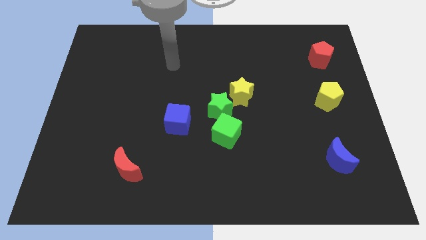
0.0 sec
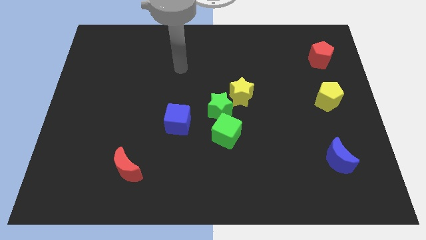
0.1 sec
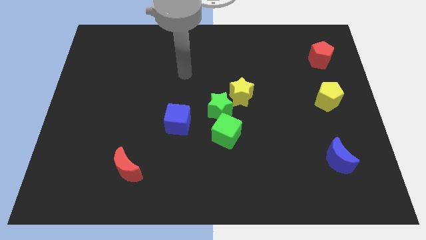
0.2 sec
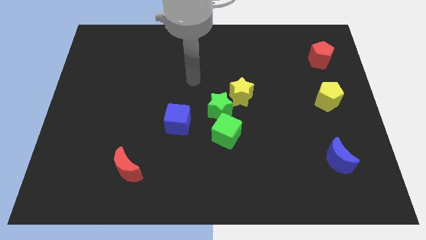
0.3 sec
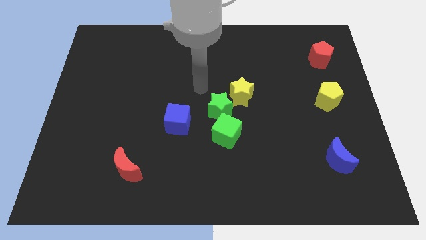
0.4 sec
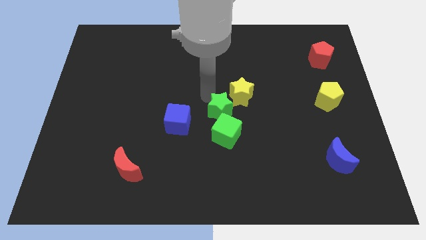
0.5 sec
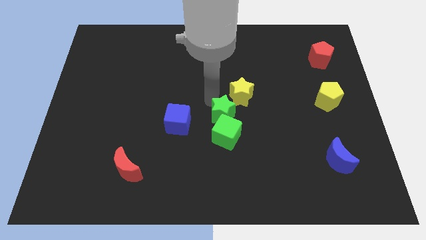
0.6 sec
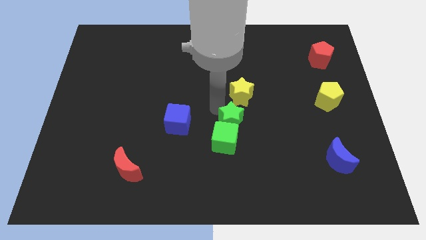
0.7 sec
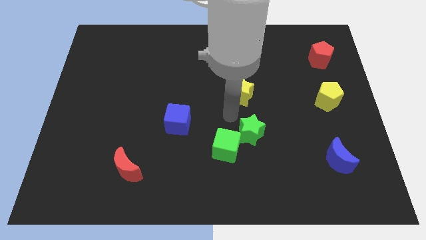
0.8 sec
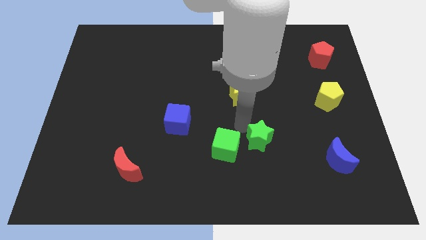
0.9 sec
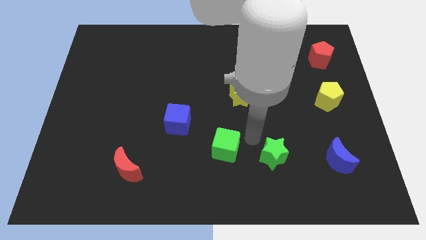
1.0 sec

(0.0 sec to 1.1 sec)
separate the green cube from the green star

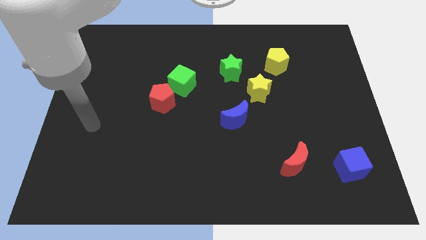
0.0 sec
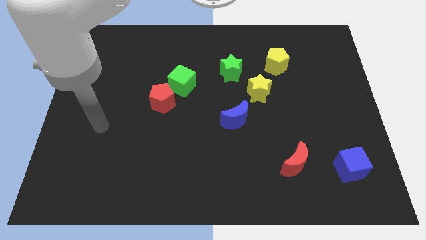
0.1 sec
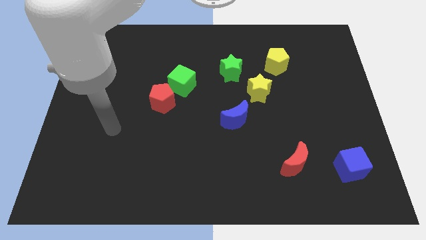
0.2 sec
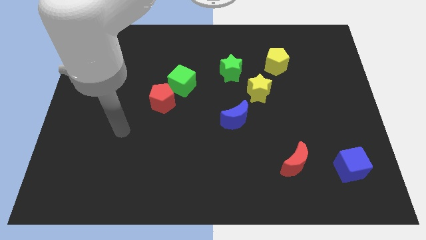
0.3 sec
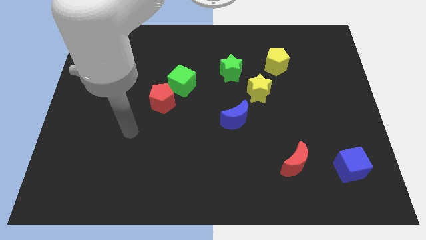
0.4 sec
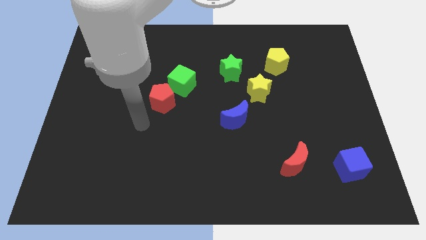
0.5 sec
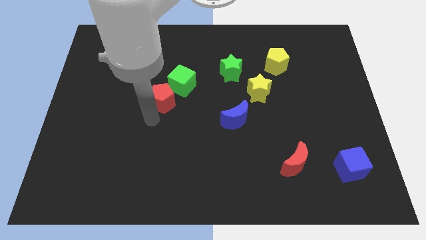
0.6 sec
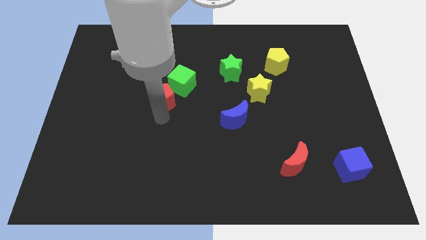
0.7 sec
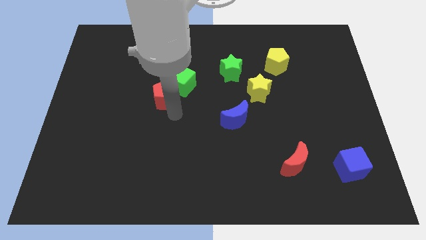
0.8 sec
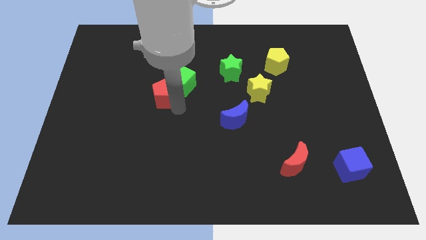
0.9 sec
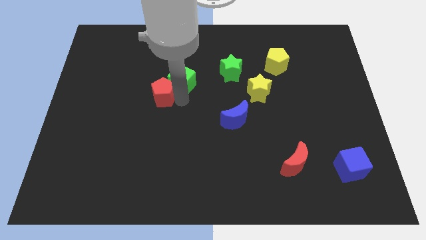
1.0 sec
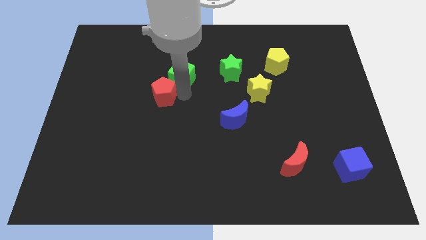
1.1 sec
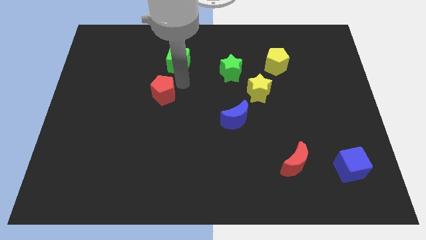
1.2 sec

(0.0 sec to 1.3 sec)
move the red pentagon away from the green cube

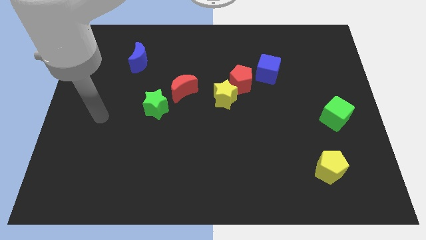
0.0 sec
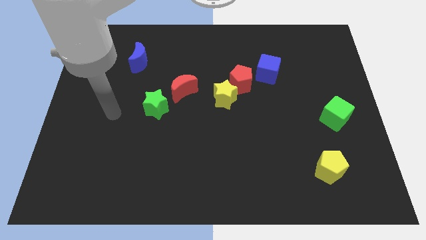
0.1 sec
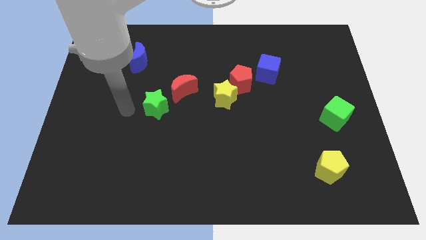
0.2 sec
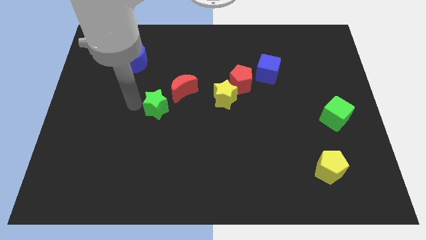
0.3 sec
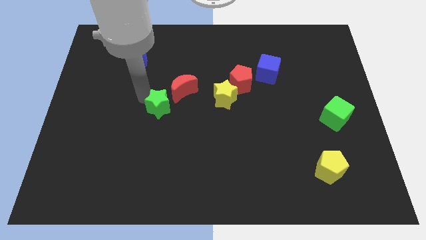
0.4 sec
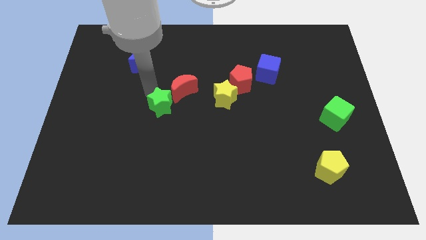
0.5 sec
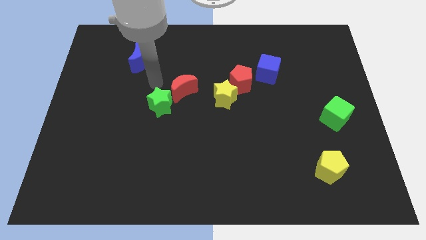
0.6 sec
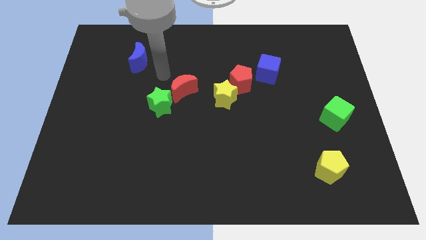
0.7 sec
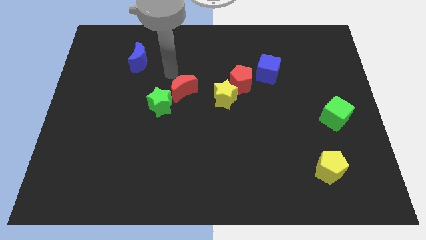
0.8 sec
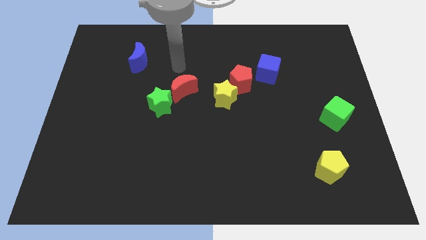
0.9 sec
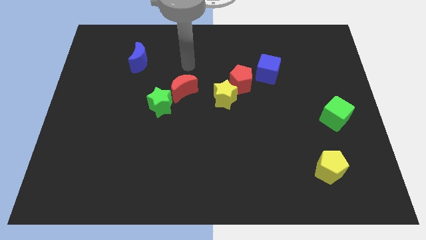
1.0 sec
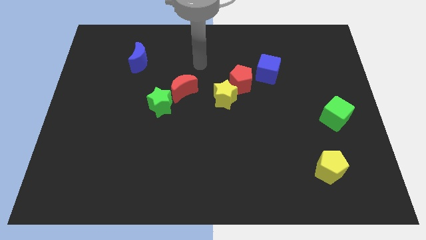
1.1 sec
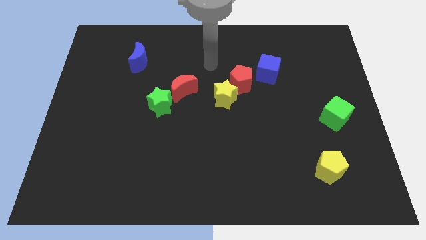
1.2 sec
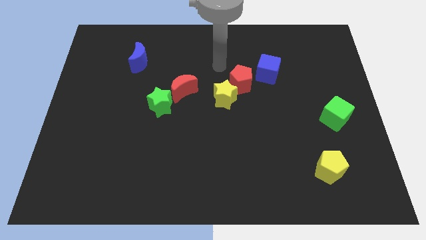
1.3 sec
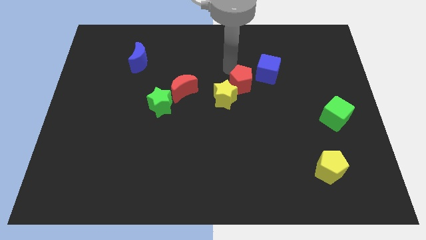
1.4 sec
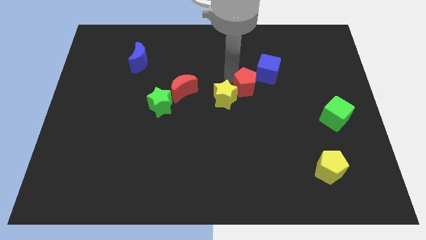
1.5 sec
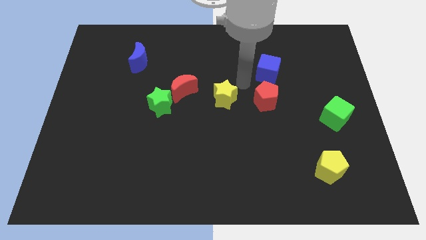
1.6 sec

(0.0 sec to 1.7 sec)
pull the yellow star apart from the red pentagon

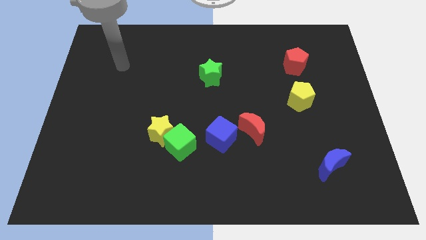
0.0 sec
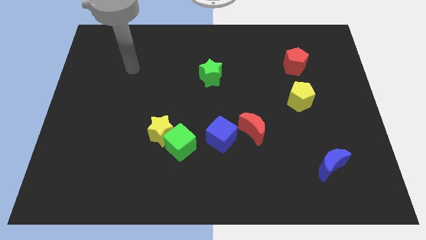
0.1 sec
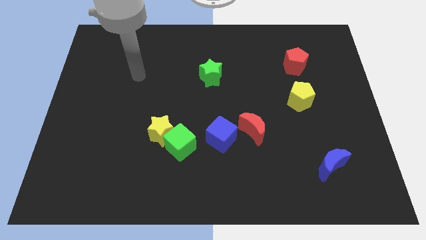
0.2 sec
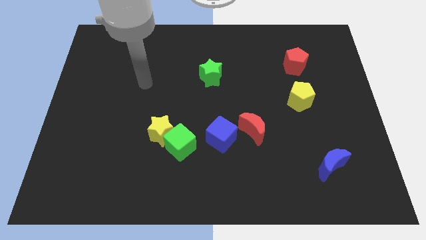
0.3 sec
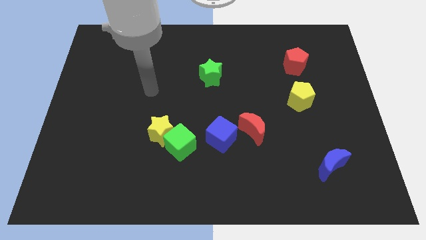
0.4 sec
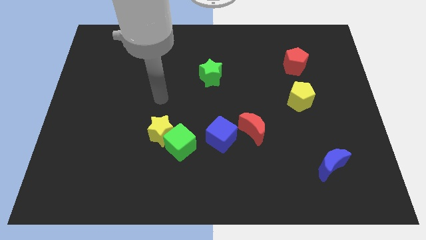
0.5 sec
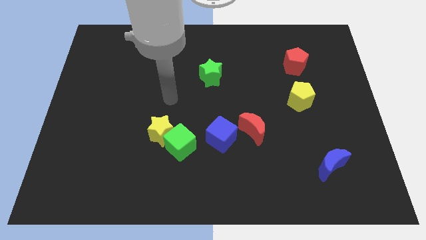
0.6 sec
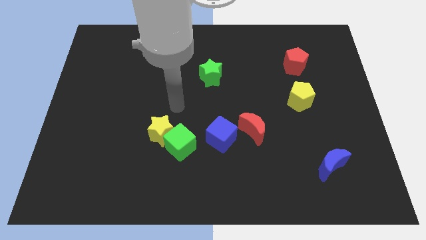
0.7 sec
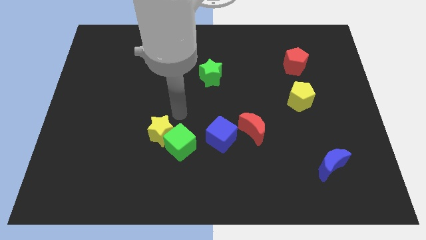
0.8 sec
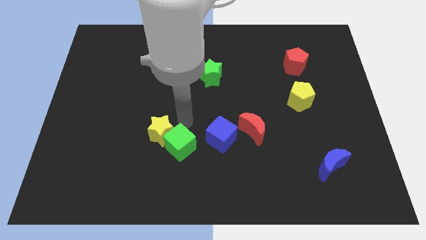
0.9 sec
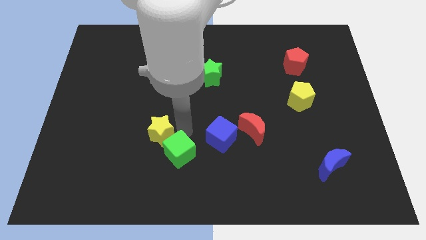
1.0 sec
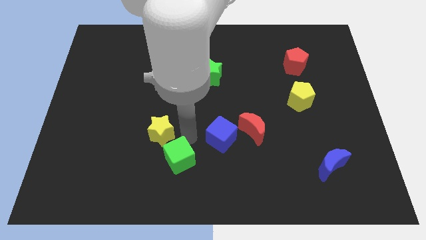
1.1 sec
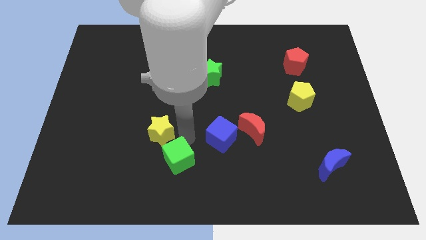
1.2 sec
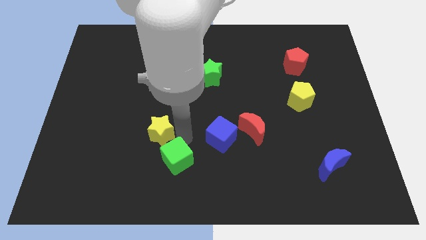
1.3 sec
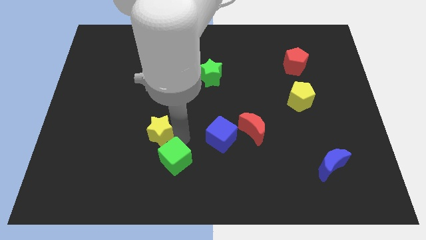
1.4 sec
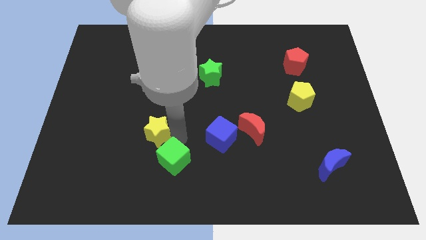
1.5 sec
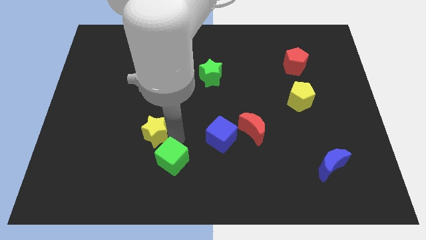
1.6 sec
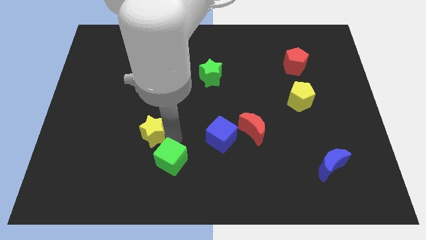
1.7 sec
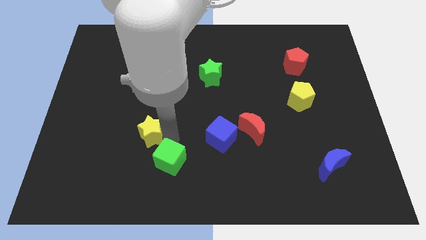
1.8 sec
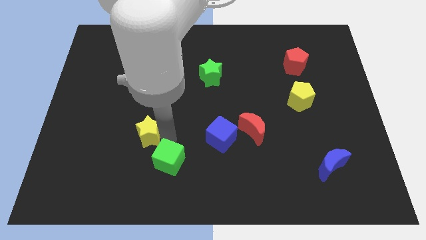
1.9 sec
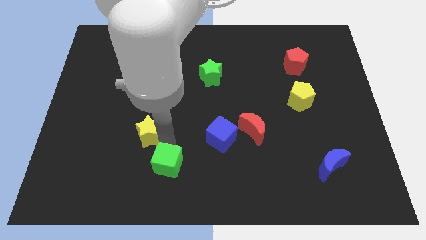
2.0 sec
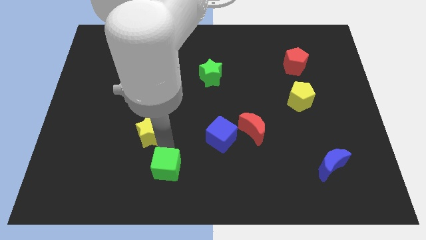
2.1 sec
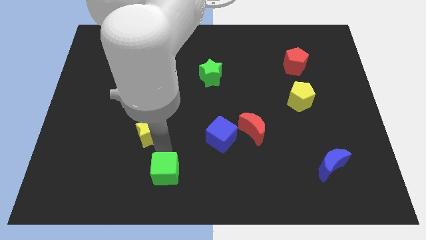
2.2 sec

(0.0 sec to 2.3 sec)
separate the yellow star from the green cube

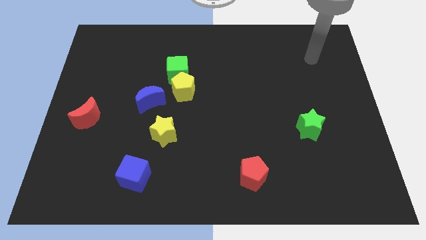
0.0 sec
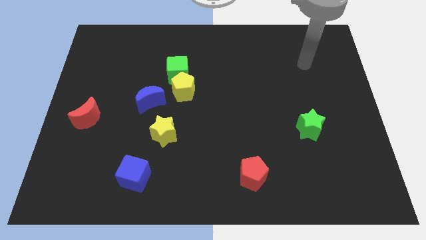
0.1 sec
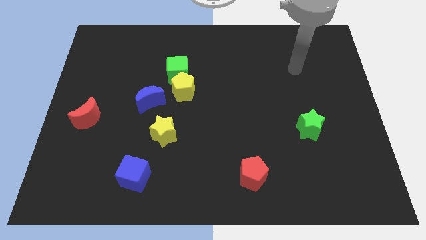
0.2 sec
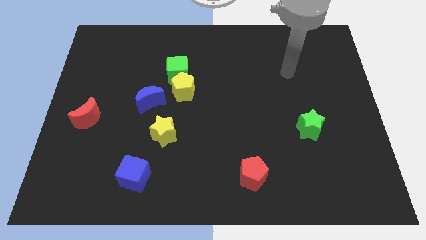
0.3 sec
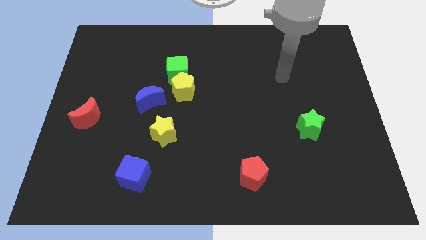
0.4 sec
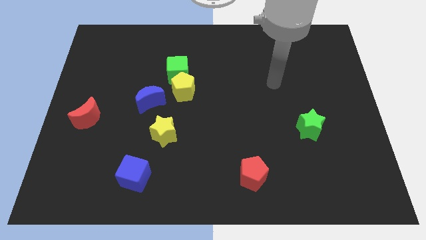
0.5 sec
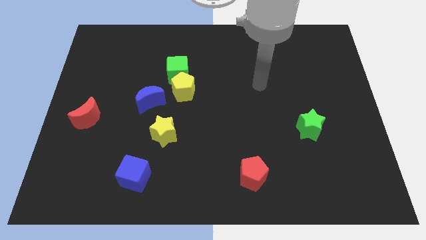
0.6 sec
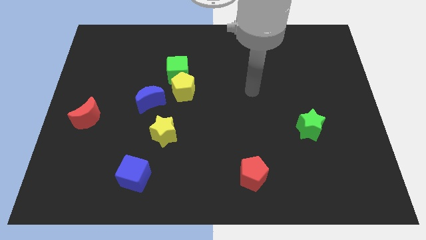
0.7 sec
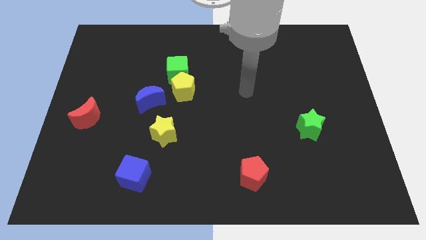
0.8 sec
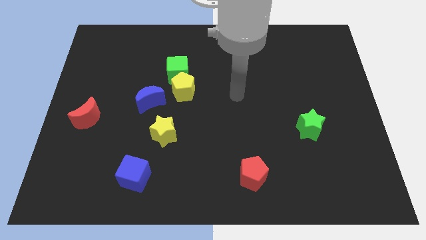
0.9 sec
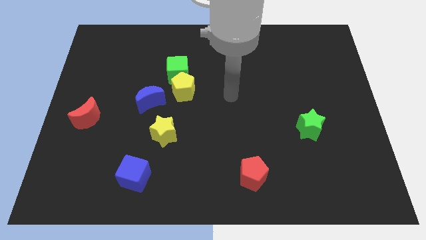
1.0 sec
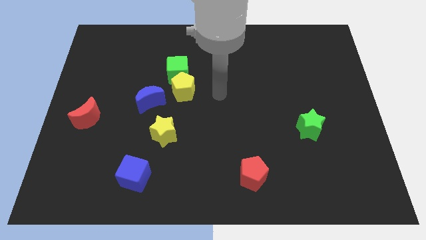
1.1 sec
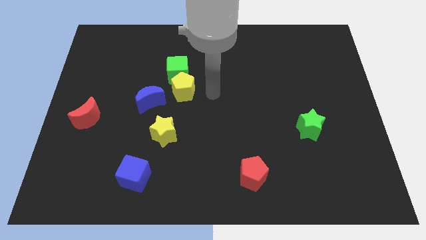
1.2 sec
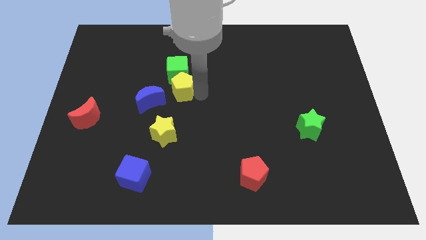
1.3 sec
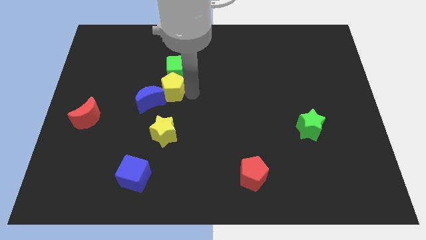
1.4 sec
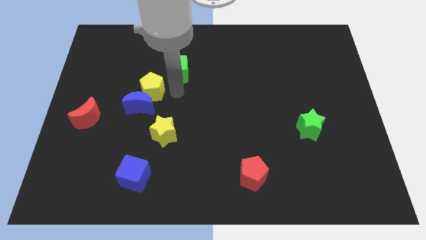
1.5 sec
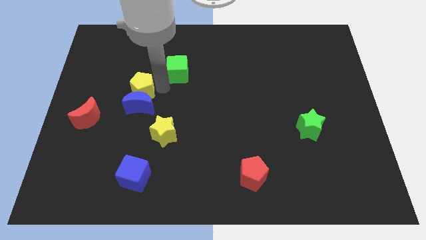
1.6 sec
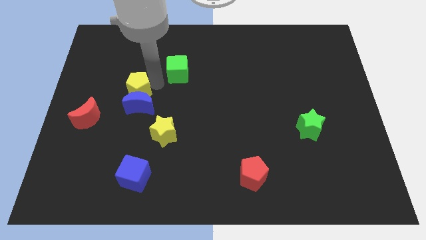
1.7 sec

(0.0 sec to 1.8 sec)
separate the green cube from the yellow pentagon

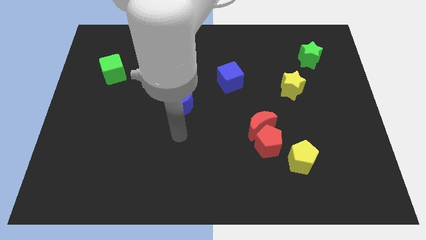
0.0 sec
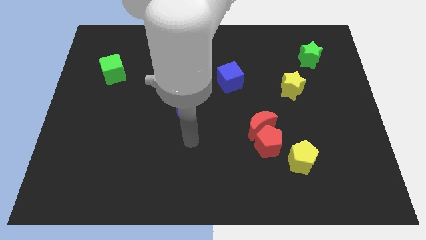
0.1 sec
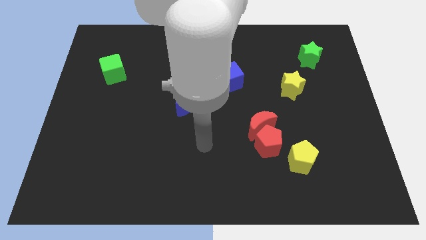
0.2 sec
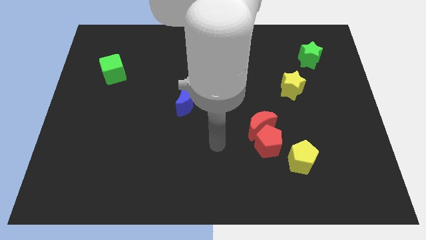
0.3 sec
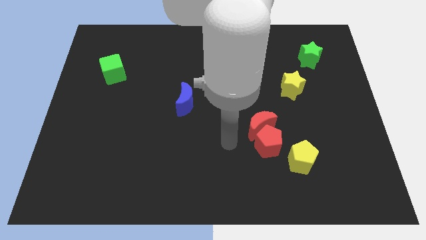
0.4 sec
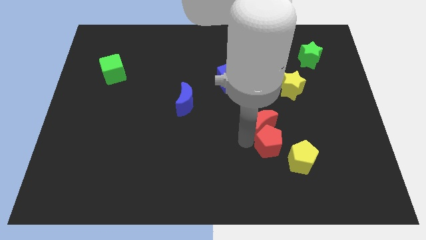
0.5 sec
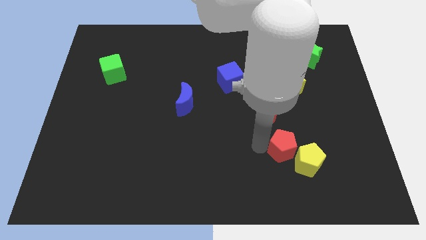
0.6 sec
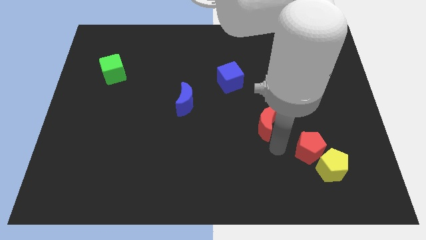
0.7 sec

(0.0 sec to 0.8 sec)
pull the red moon apart from the red pentagon

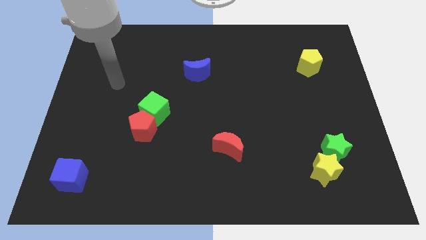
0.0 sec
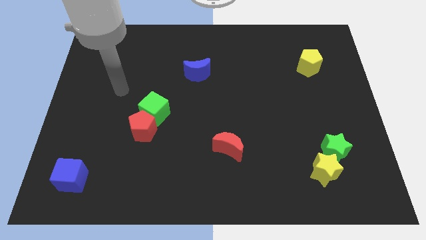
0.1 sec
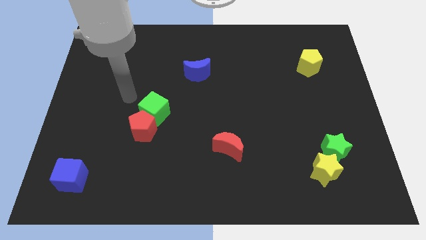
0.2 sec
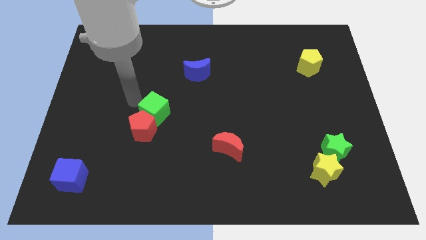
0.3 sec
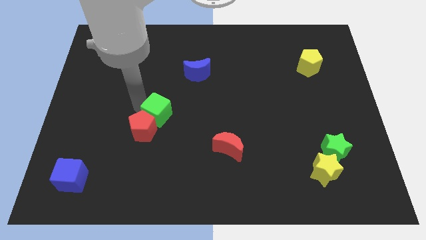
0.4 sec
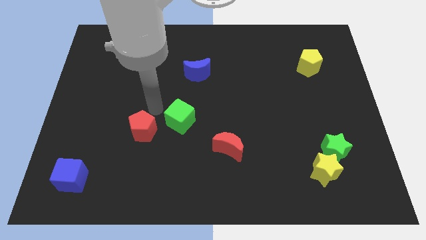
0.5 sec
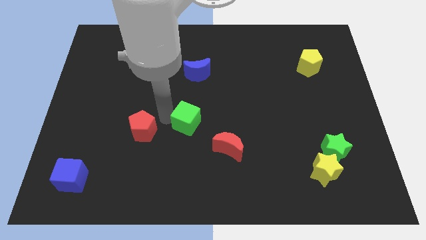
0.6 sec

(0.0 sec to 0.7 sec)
pull the red pentagon apart from the green cube
